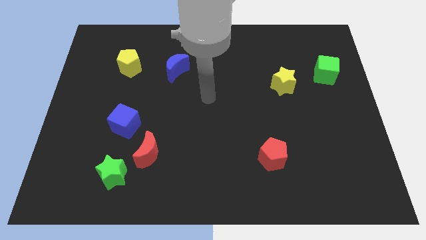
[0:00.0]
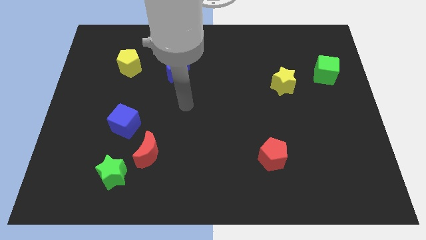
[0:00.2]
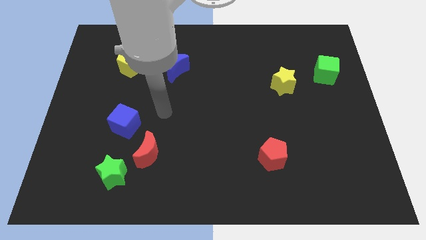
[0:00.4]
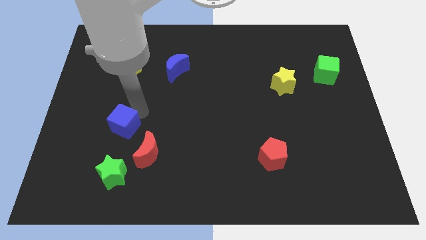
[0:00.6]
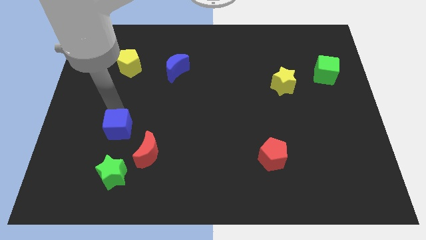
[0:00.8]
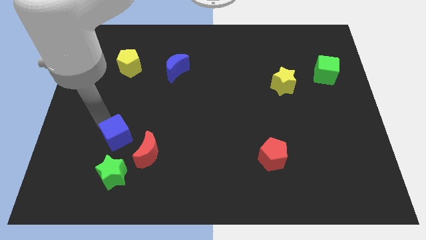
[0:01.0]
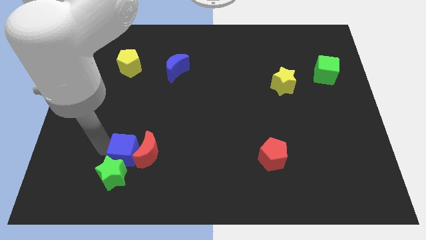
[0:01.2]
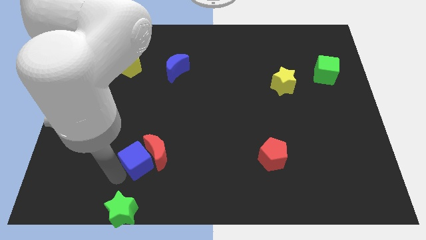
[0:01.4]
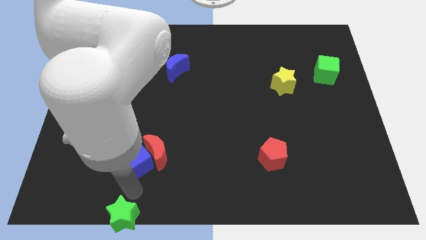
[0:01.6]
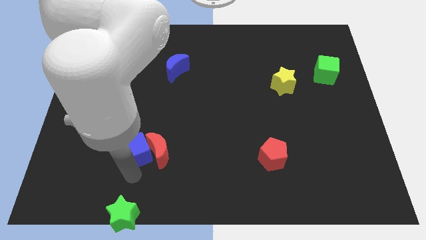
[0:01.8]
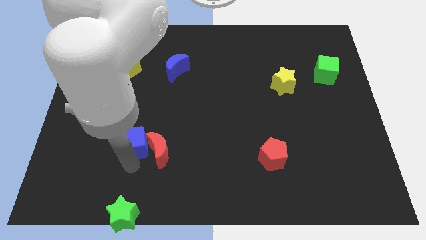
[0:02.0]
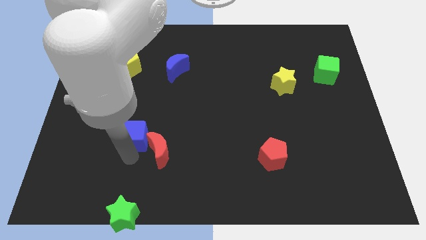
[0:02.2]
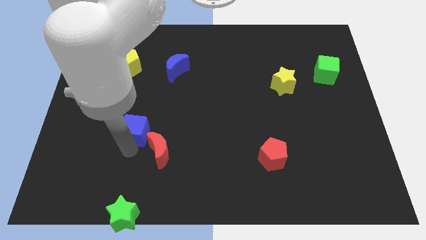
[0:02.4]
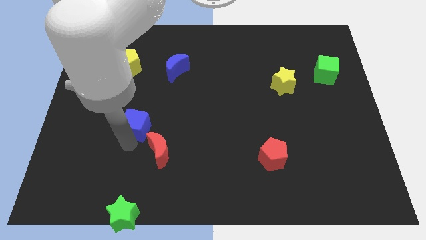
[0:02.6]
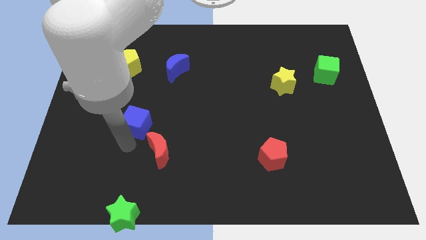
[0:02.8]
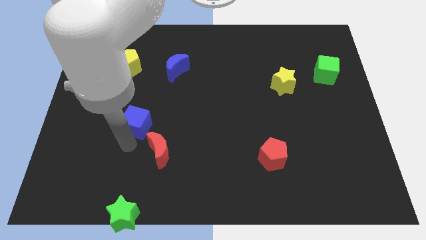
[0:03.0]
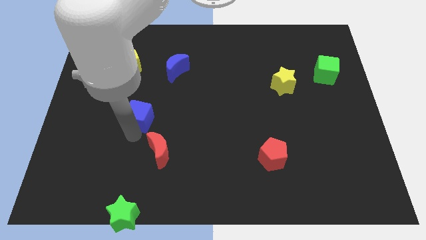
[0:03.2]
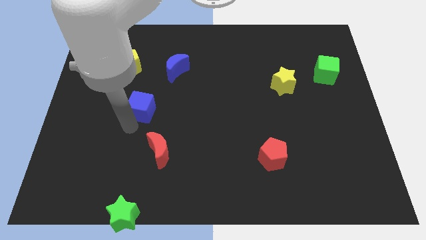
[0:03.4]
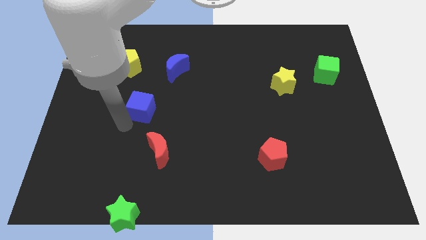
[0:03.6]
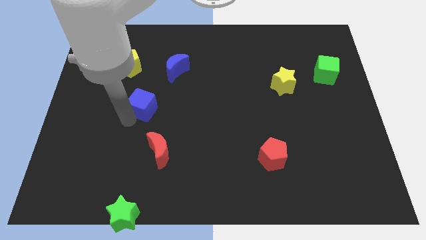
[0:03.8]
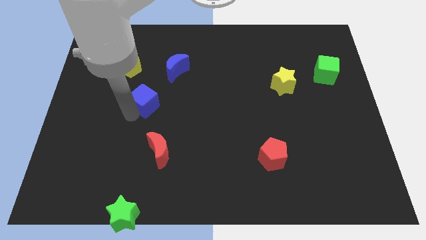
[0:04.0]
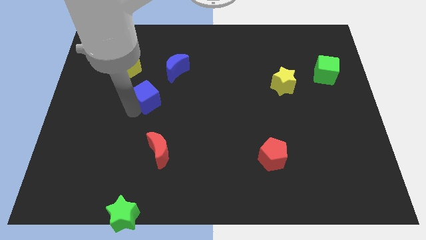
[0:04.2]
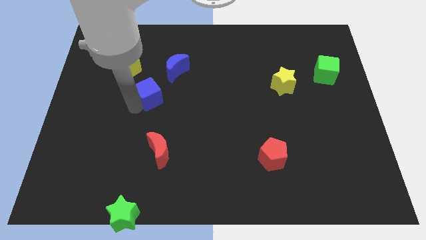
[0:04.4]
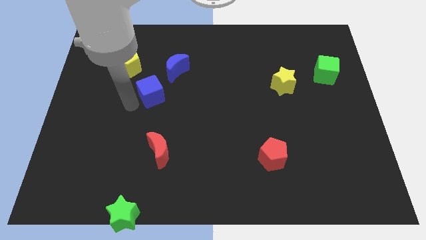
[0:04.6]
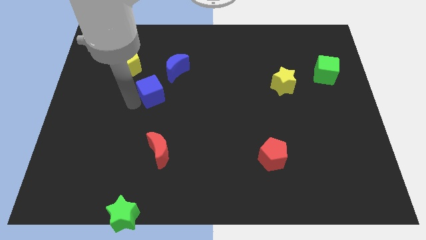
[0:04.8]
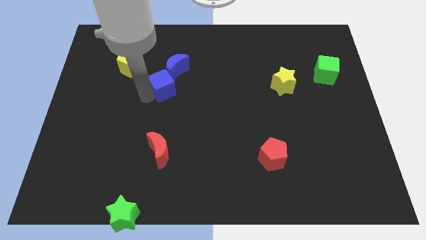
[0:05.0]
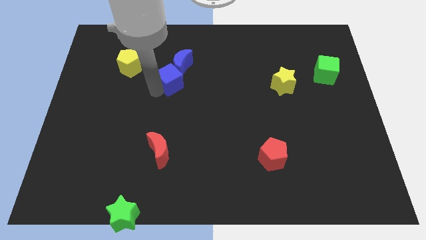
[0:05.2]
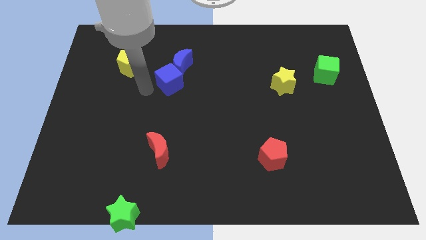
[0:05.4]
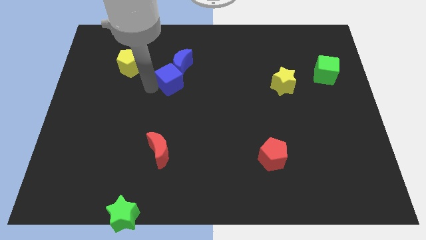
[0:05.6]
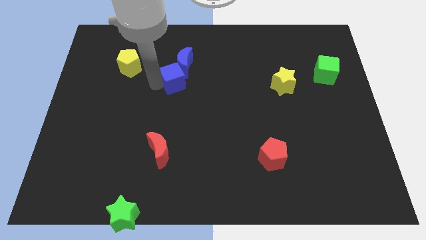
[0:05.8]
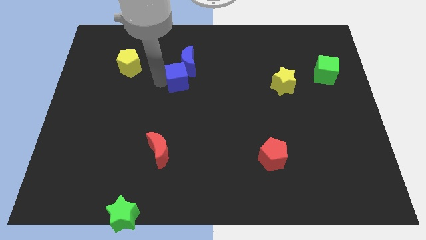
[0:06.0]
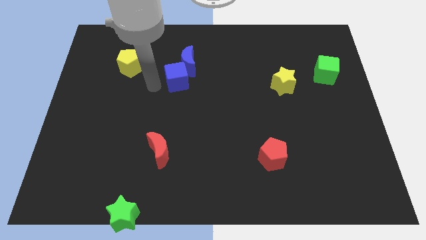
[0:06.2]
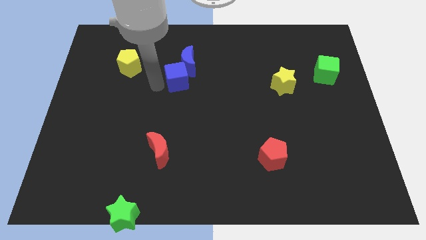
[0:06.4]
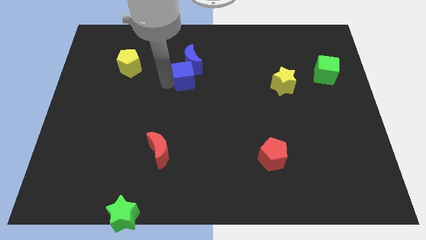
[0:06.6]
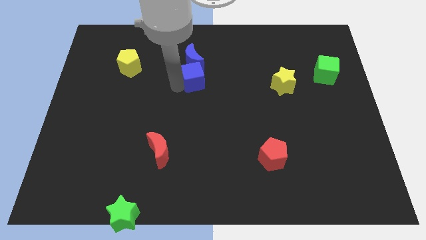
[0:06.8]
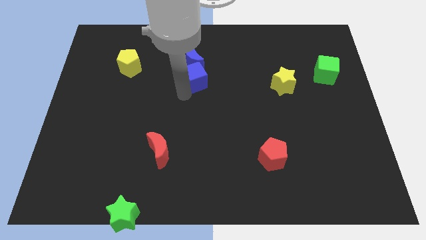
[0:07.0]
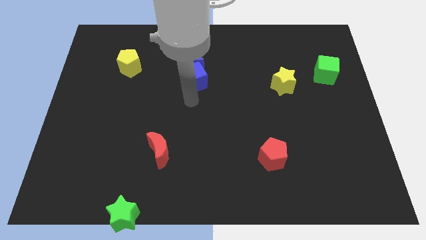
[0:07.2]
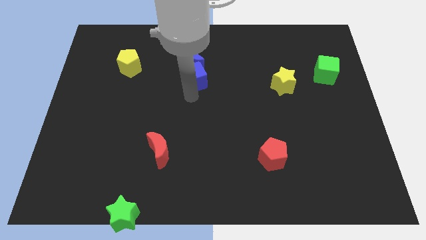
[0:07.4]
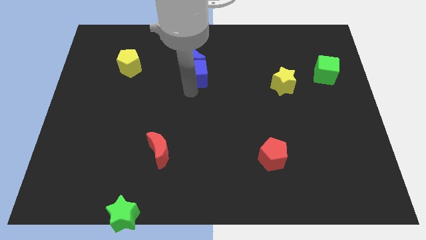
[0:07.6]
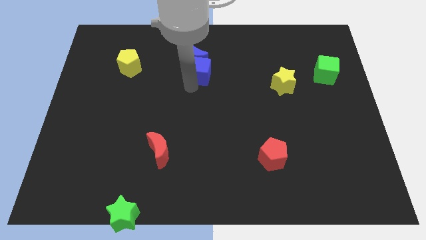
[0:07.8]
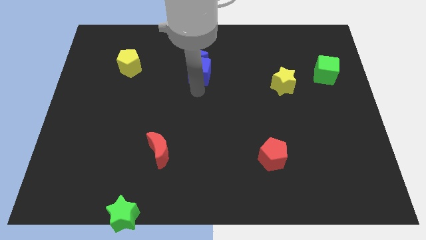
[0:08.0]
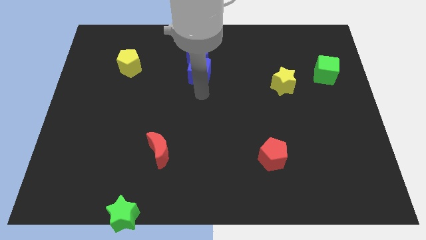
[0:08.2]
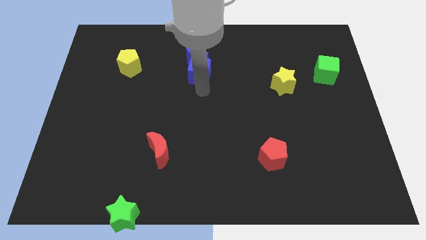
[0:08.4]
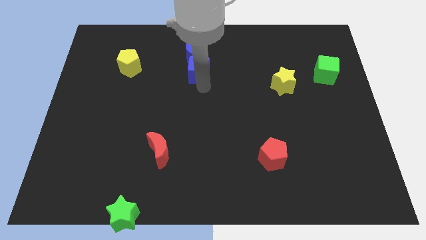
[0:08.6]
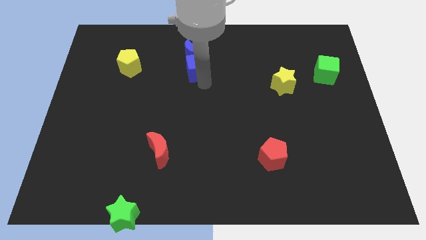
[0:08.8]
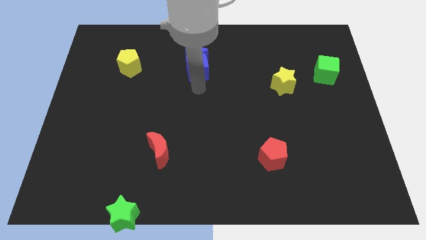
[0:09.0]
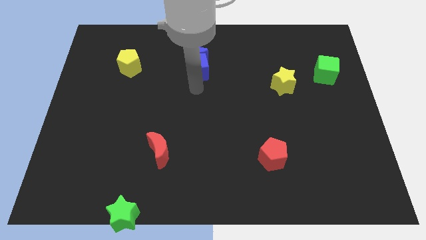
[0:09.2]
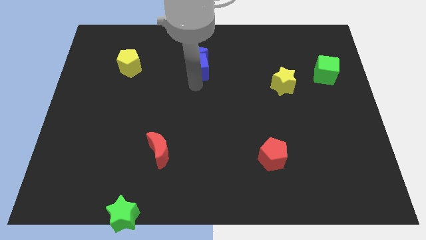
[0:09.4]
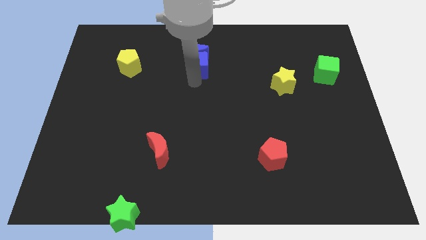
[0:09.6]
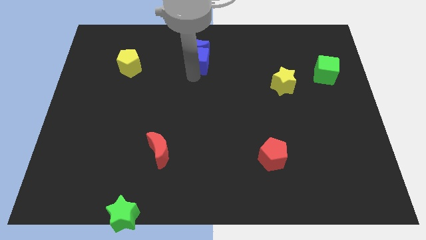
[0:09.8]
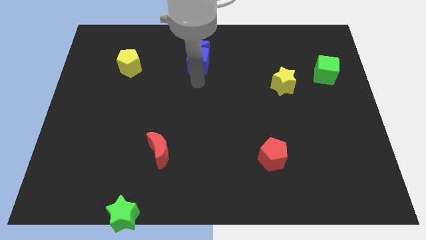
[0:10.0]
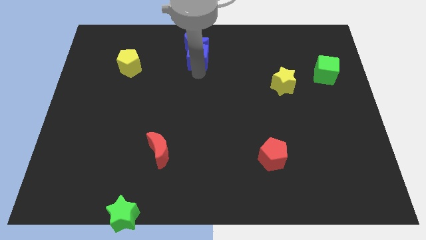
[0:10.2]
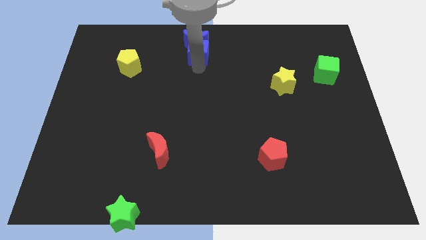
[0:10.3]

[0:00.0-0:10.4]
move the blue cube to the top side

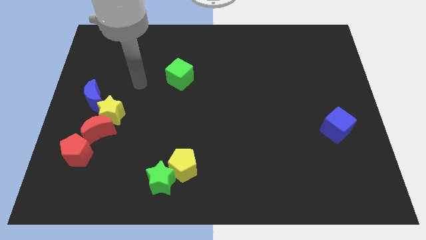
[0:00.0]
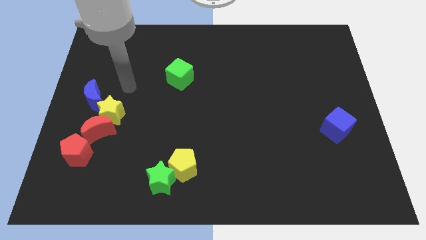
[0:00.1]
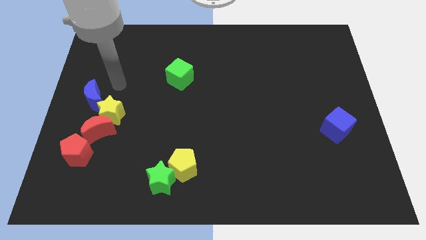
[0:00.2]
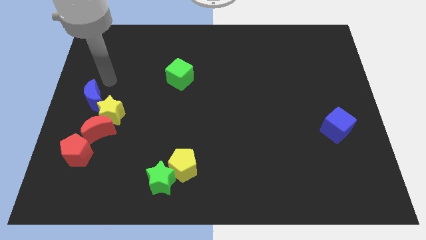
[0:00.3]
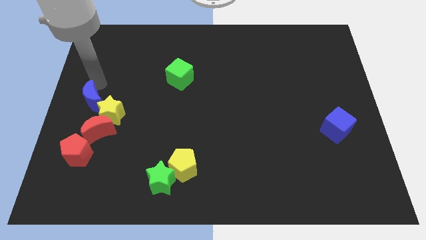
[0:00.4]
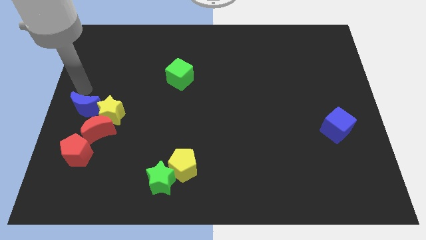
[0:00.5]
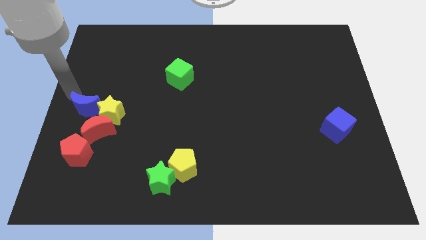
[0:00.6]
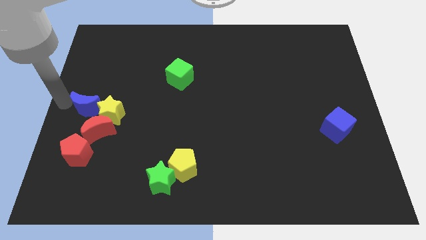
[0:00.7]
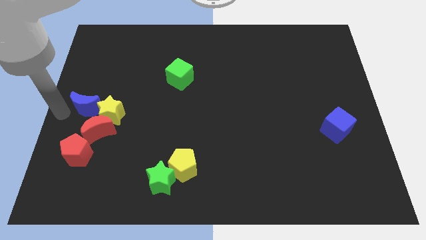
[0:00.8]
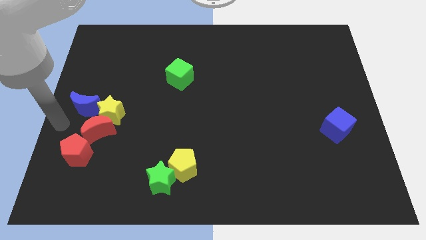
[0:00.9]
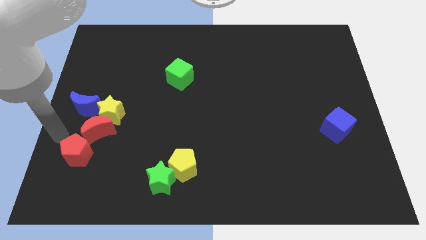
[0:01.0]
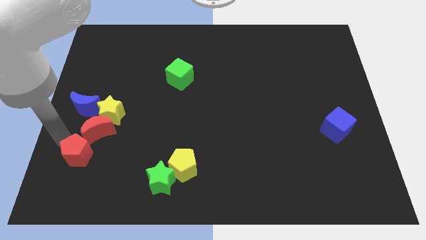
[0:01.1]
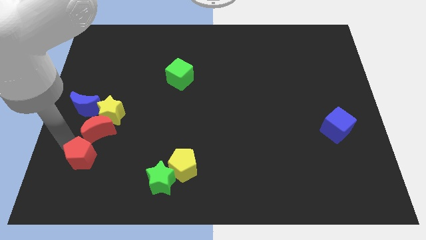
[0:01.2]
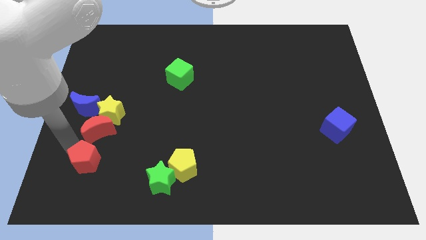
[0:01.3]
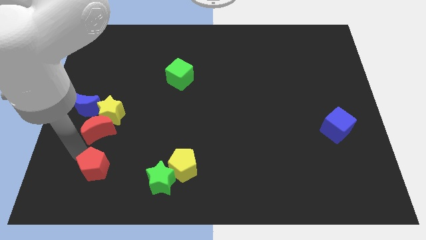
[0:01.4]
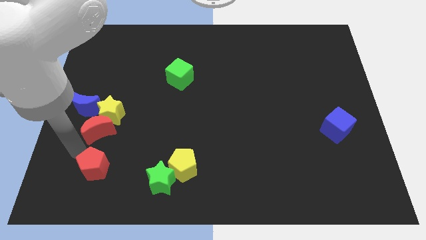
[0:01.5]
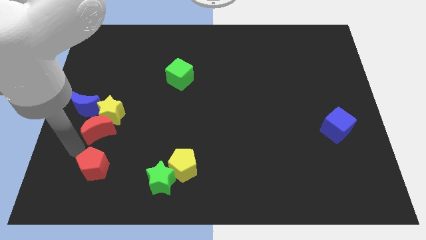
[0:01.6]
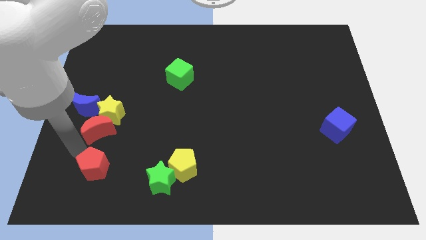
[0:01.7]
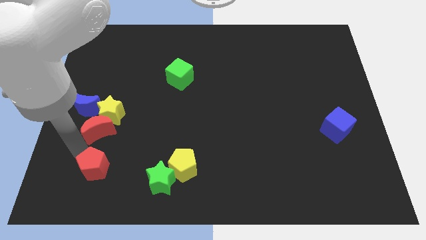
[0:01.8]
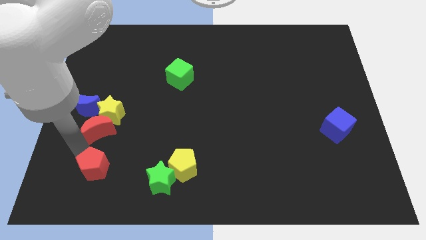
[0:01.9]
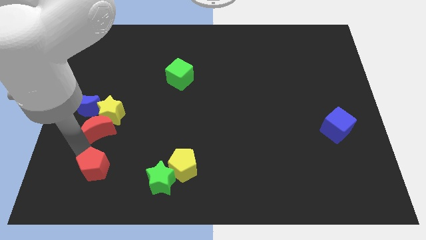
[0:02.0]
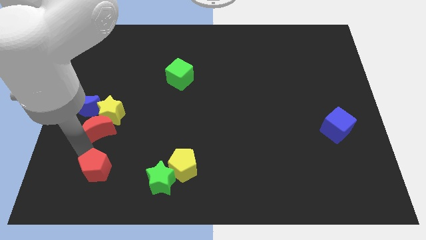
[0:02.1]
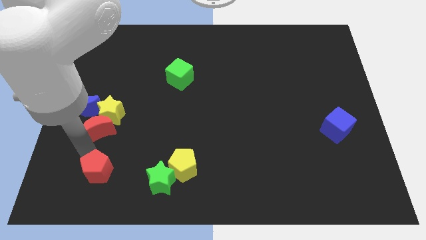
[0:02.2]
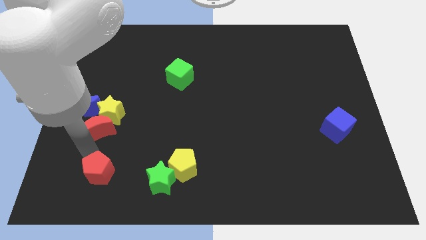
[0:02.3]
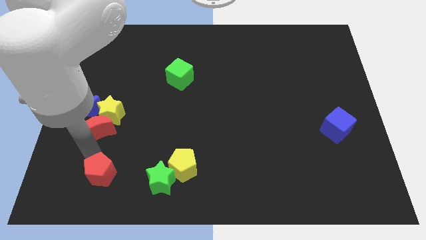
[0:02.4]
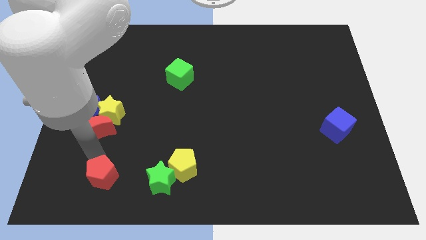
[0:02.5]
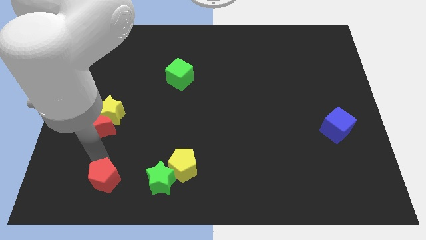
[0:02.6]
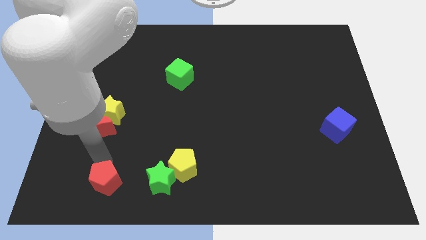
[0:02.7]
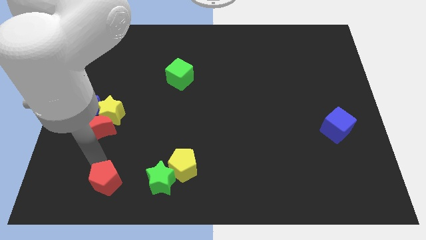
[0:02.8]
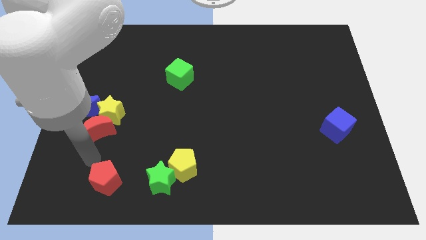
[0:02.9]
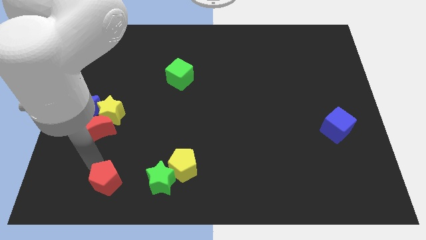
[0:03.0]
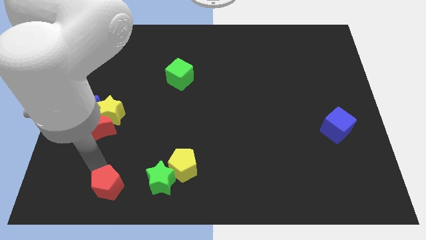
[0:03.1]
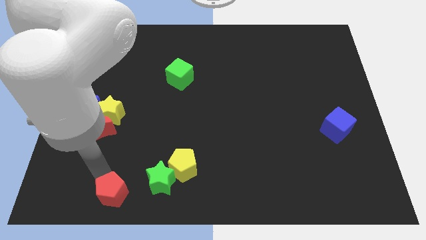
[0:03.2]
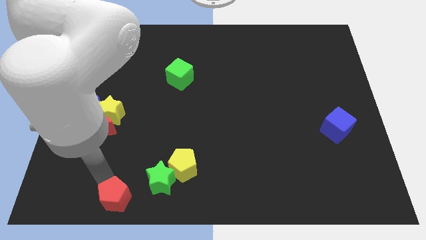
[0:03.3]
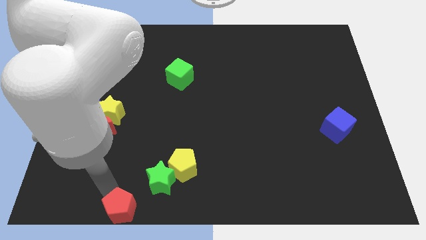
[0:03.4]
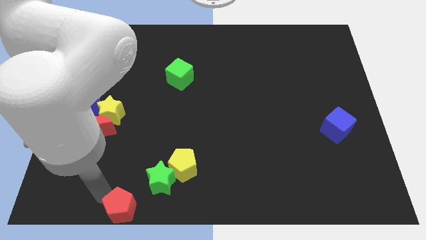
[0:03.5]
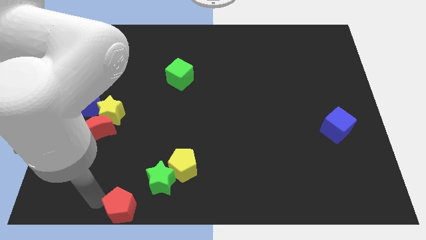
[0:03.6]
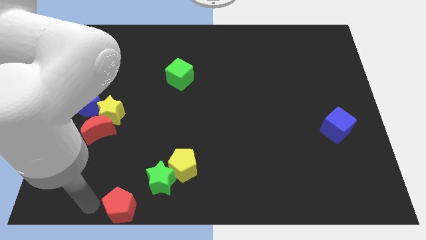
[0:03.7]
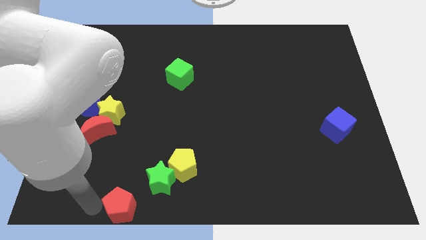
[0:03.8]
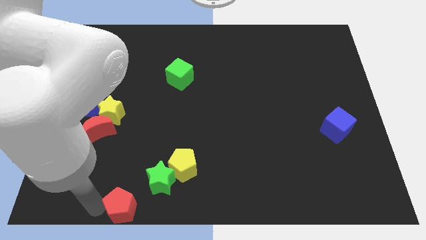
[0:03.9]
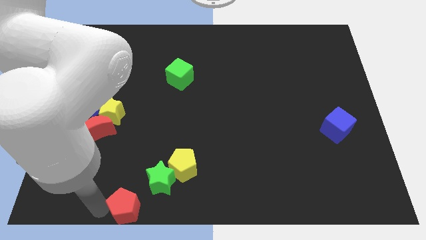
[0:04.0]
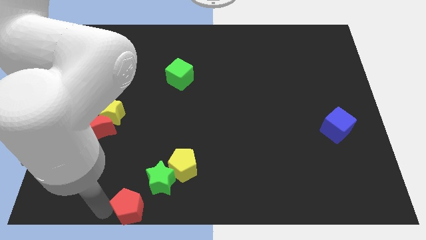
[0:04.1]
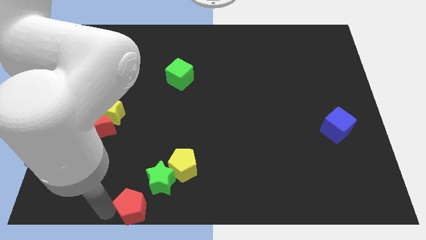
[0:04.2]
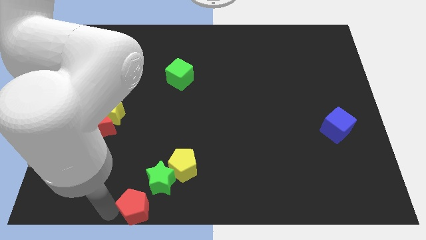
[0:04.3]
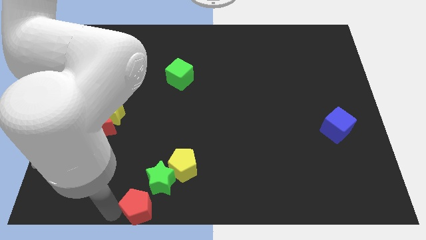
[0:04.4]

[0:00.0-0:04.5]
put the red pentagon to the bottom
